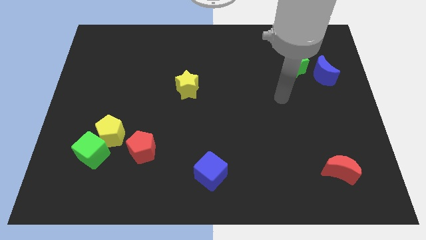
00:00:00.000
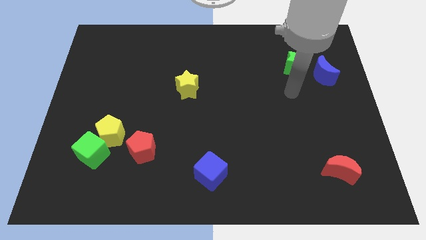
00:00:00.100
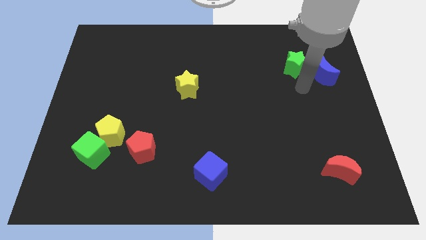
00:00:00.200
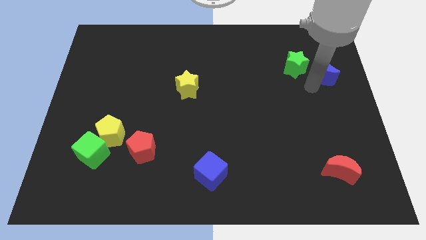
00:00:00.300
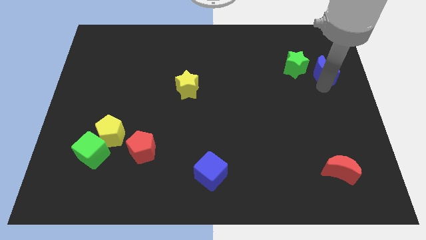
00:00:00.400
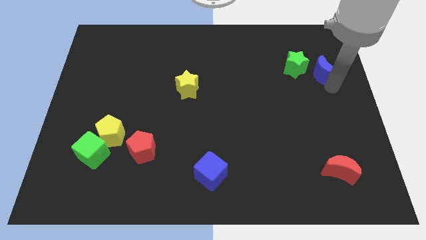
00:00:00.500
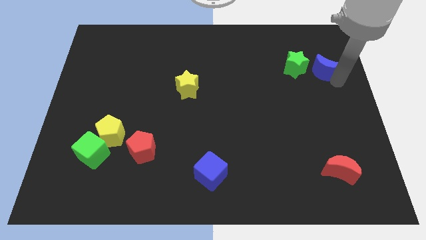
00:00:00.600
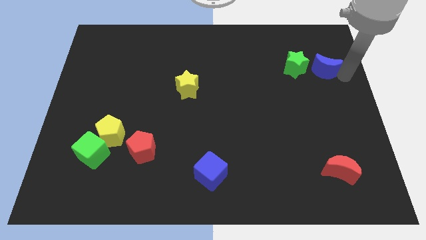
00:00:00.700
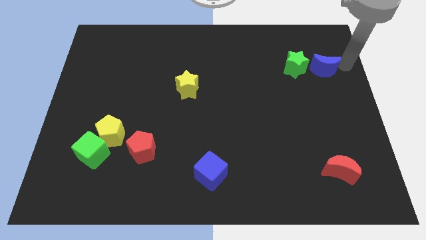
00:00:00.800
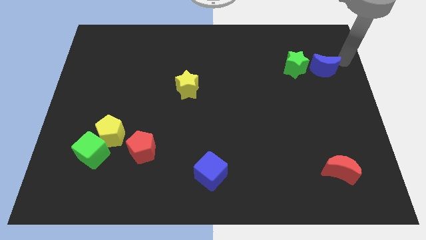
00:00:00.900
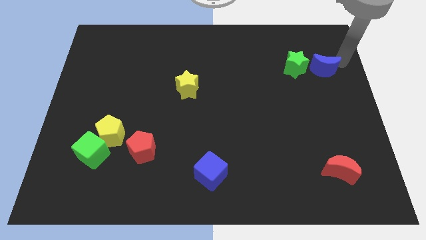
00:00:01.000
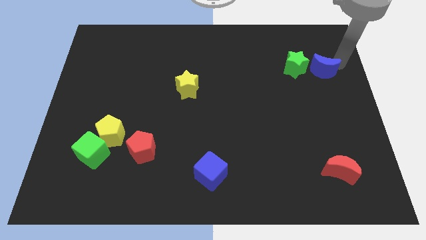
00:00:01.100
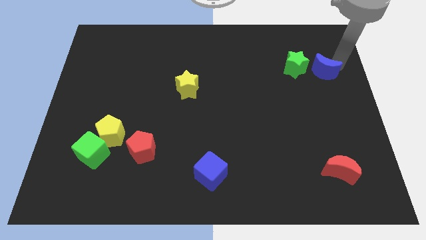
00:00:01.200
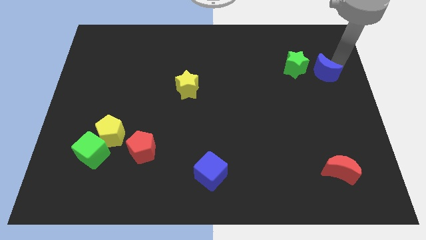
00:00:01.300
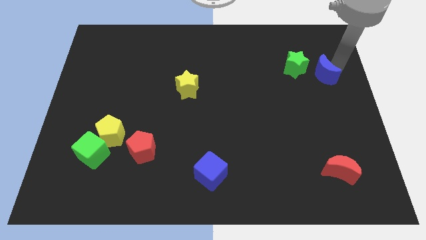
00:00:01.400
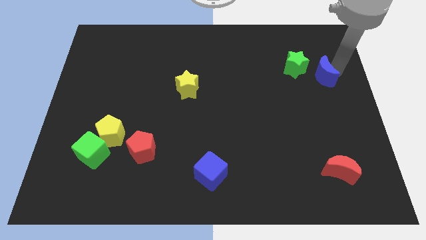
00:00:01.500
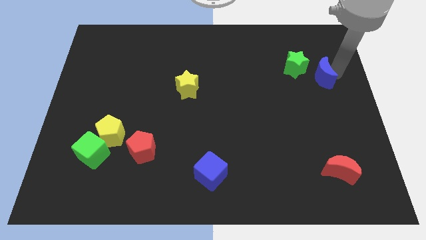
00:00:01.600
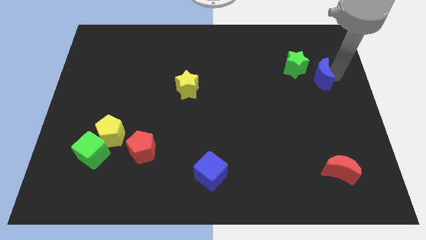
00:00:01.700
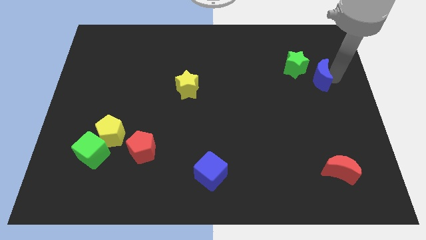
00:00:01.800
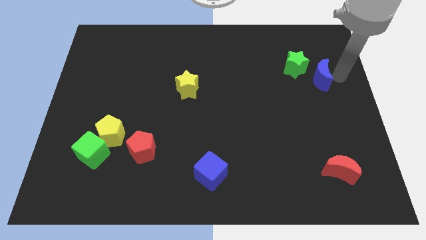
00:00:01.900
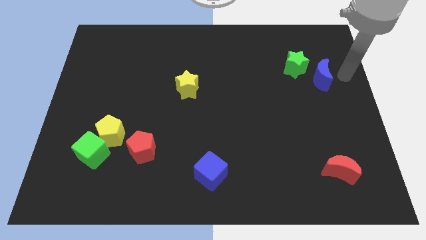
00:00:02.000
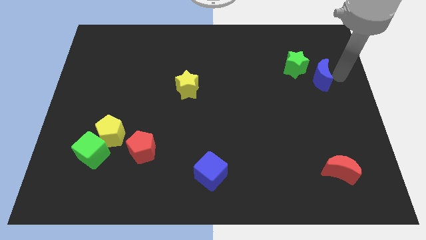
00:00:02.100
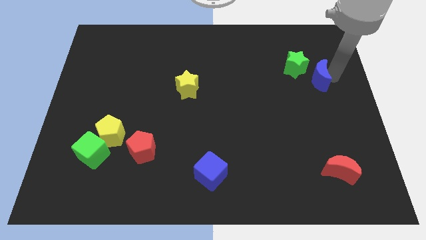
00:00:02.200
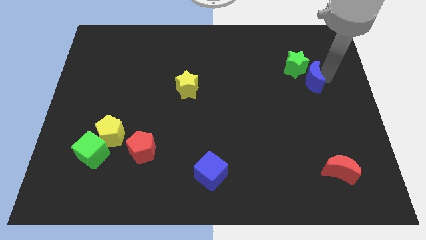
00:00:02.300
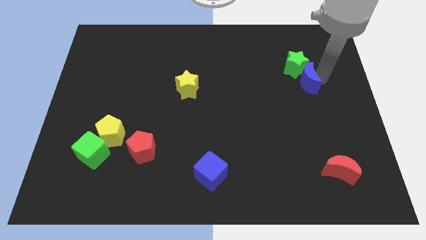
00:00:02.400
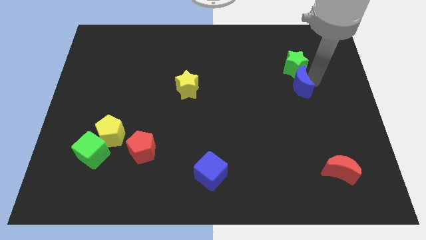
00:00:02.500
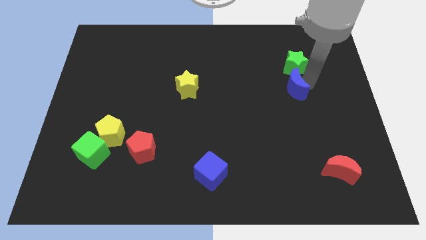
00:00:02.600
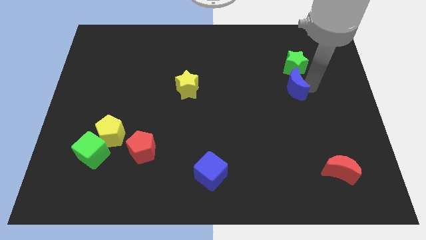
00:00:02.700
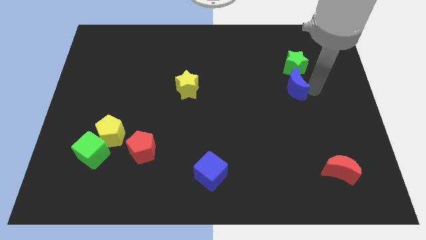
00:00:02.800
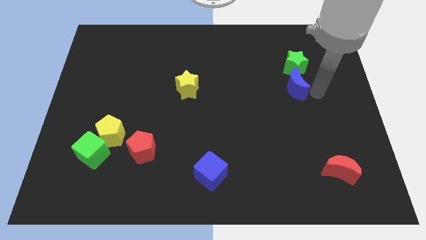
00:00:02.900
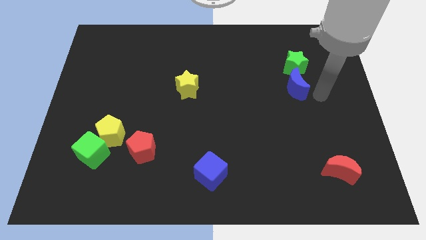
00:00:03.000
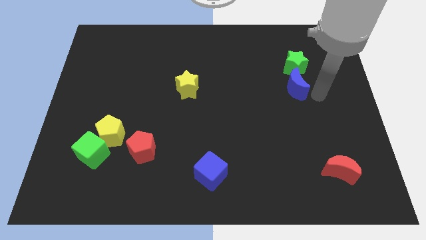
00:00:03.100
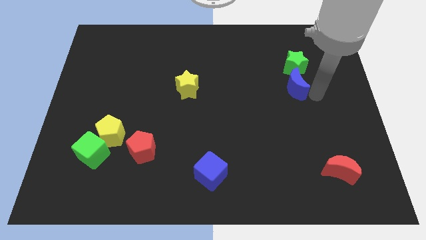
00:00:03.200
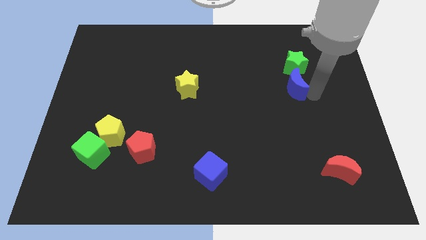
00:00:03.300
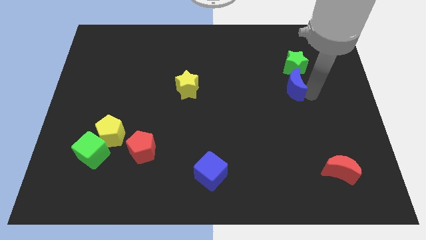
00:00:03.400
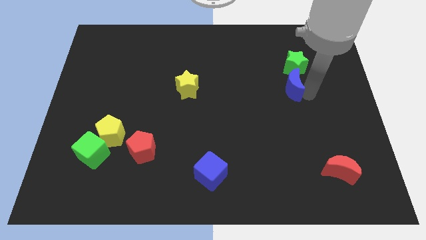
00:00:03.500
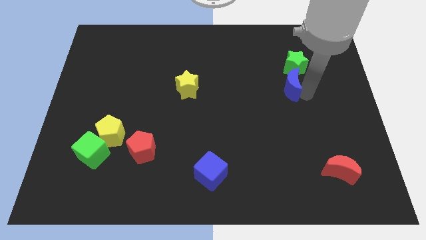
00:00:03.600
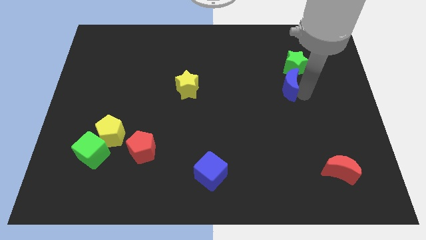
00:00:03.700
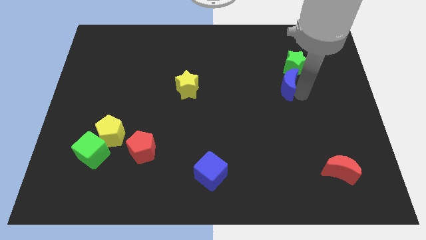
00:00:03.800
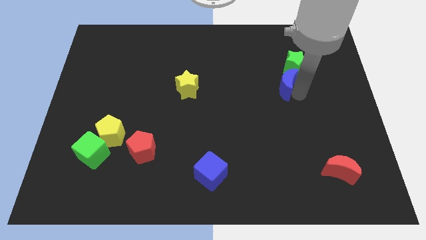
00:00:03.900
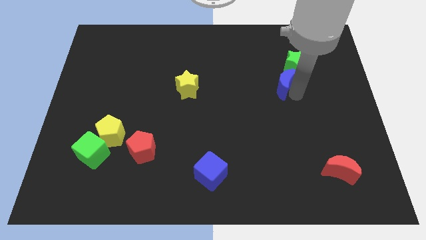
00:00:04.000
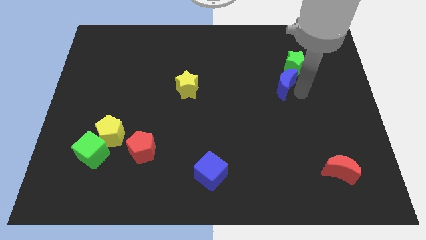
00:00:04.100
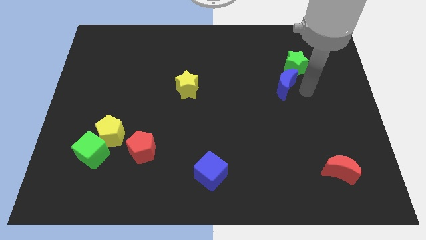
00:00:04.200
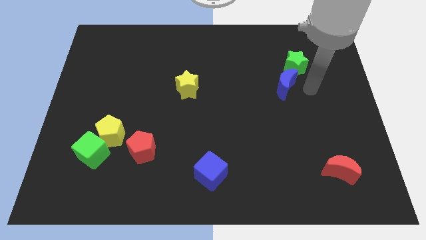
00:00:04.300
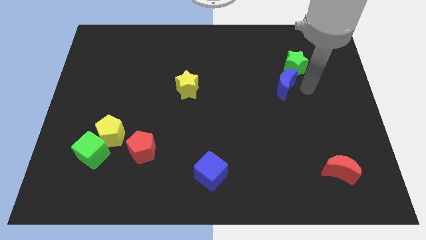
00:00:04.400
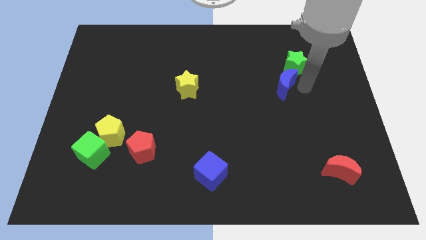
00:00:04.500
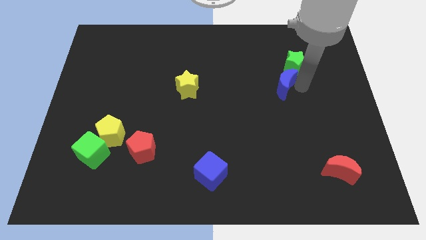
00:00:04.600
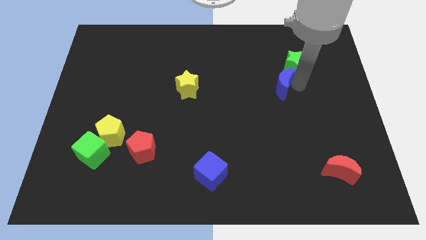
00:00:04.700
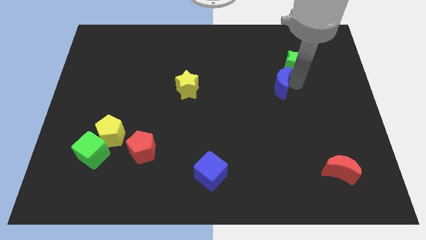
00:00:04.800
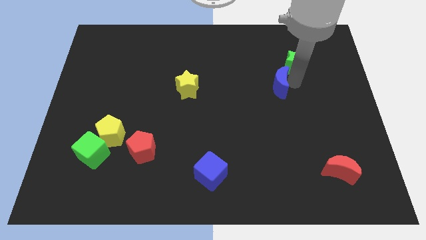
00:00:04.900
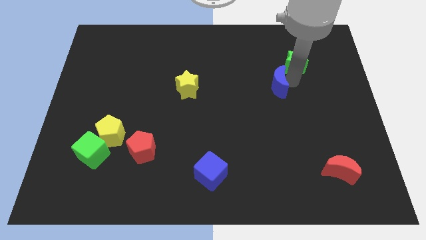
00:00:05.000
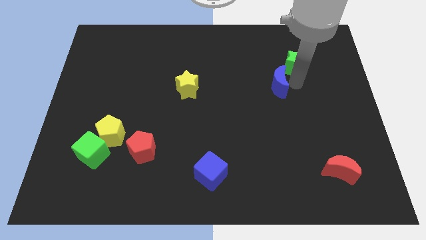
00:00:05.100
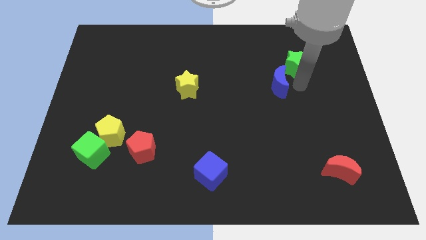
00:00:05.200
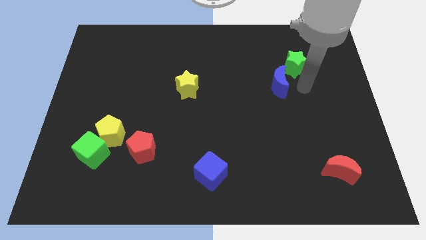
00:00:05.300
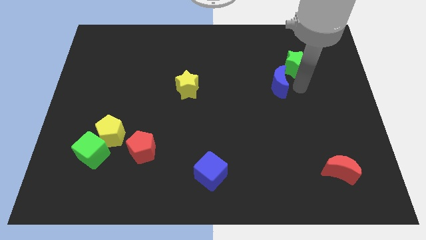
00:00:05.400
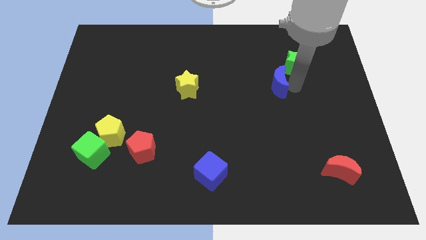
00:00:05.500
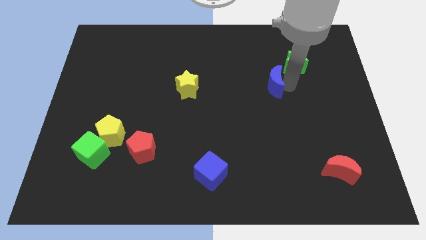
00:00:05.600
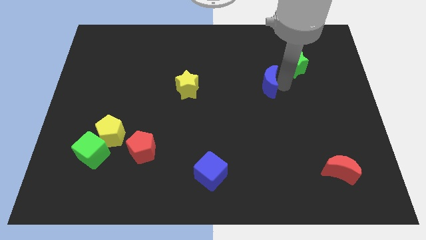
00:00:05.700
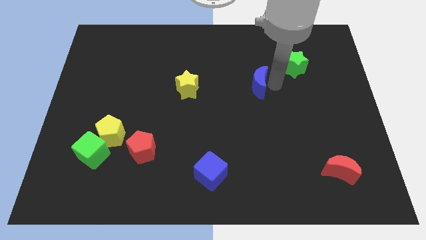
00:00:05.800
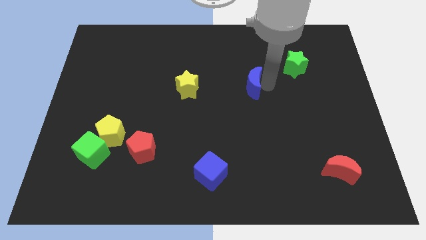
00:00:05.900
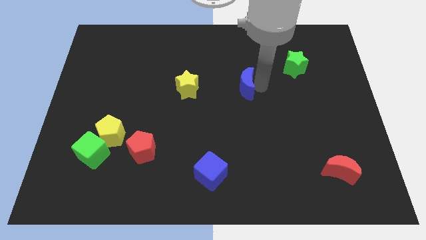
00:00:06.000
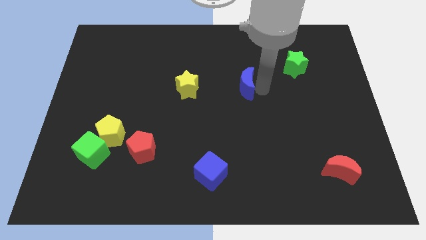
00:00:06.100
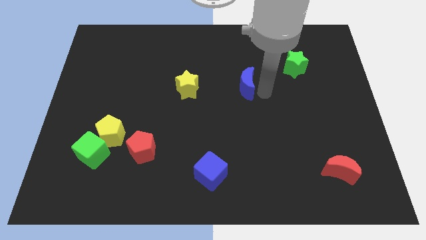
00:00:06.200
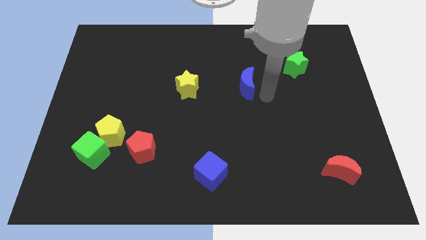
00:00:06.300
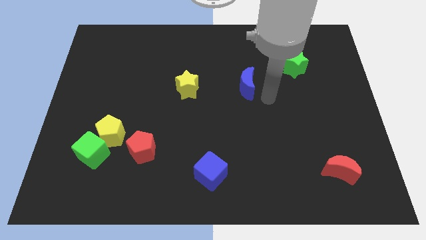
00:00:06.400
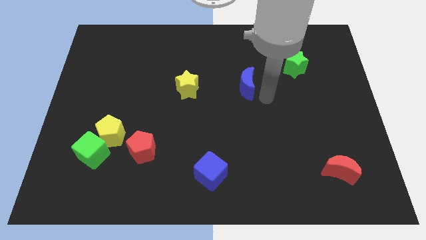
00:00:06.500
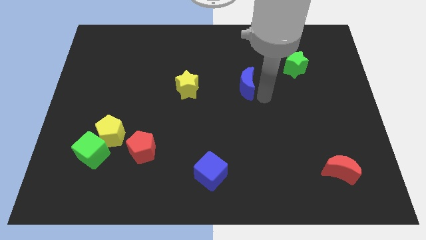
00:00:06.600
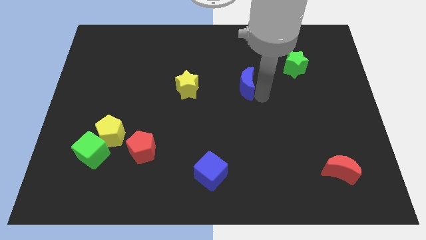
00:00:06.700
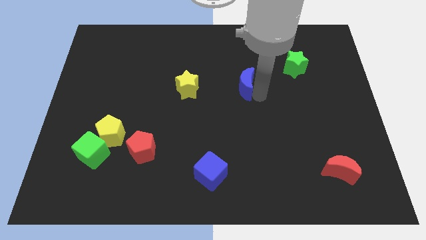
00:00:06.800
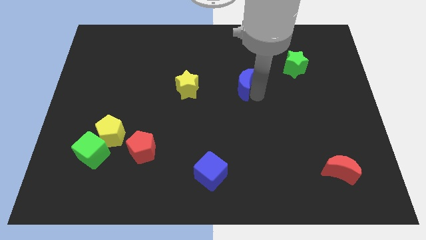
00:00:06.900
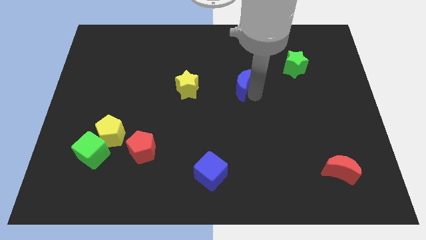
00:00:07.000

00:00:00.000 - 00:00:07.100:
push the blue moon left

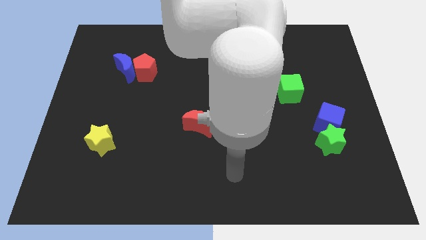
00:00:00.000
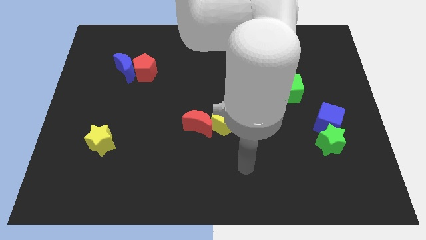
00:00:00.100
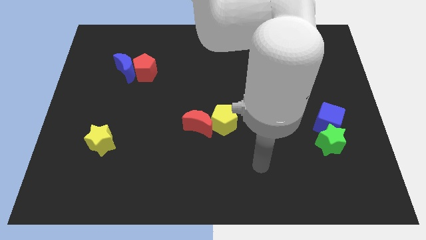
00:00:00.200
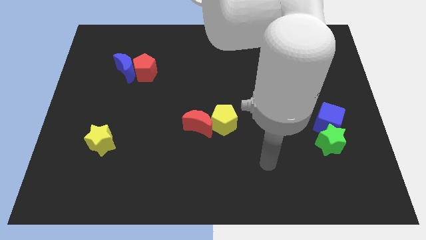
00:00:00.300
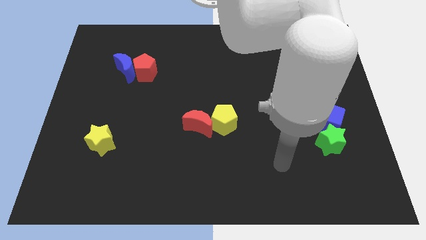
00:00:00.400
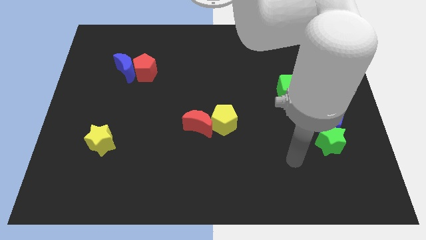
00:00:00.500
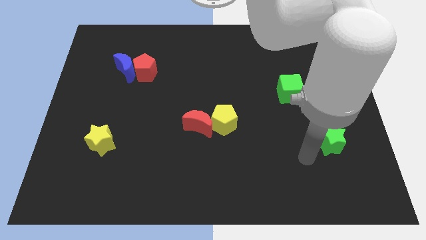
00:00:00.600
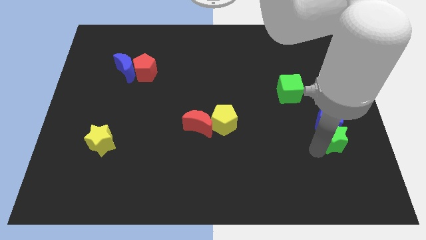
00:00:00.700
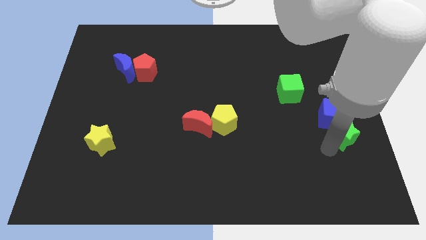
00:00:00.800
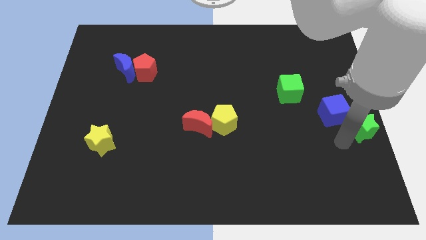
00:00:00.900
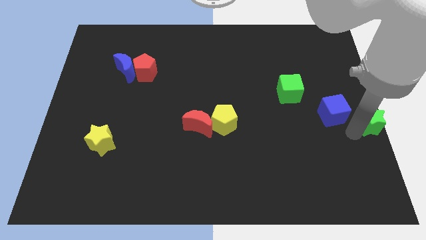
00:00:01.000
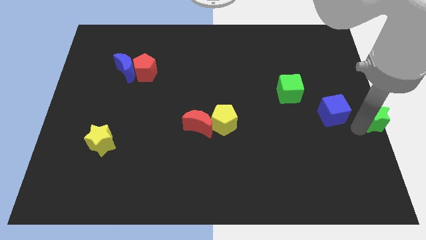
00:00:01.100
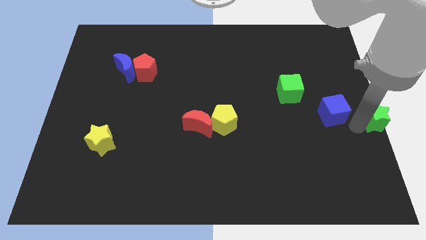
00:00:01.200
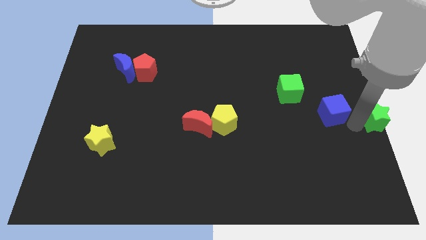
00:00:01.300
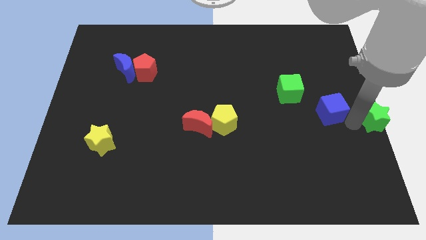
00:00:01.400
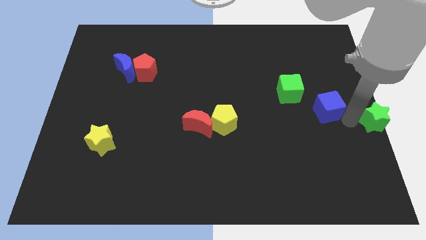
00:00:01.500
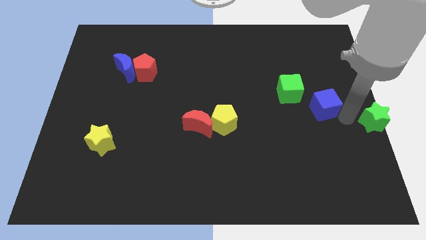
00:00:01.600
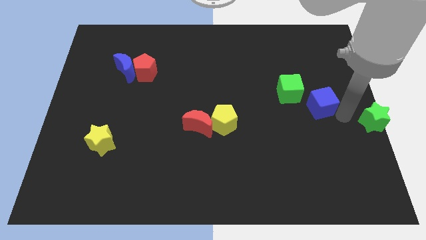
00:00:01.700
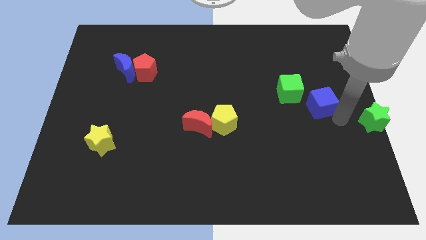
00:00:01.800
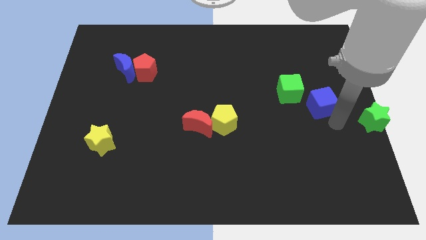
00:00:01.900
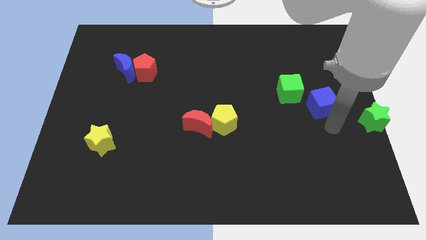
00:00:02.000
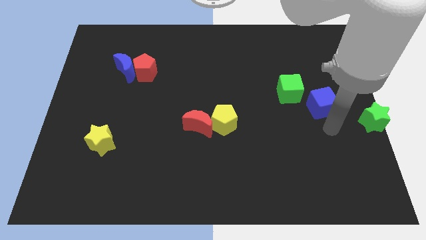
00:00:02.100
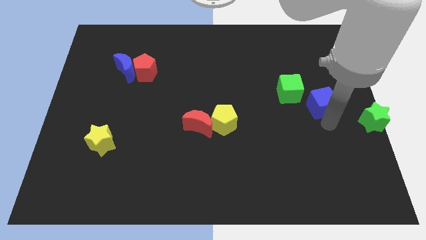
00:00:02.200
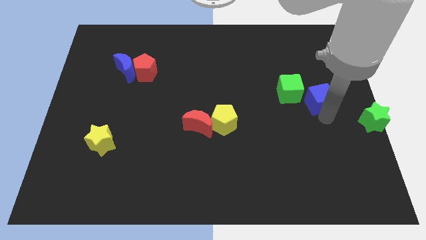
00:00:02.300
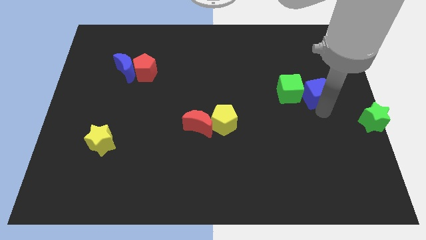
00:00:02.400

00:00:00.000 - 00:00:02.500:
slide the blue cube somewhat upwards
